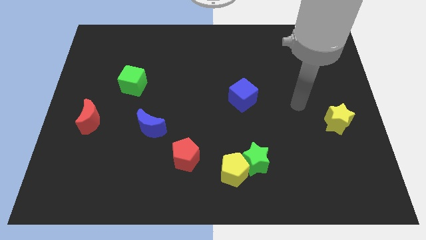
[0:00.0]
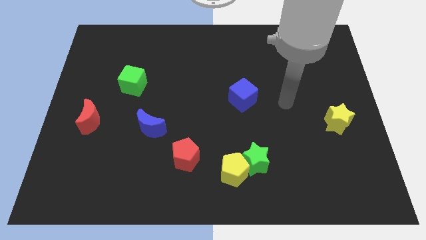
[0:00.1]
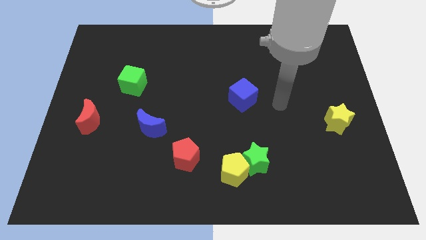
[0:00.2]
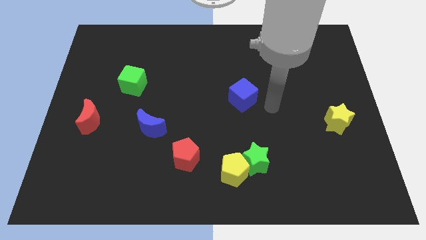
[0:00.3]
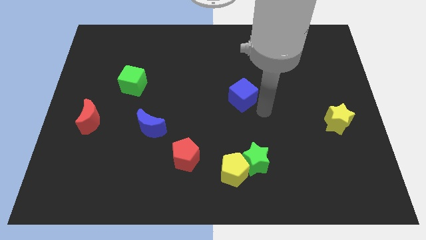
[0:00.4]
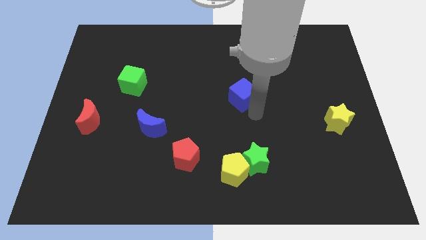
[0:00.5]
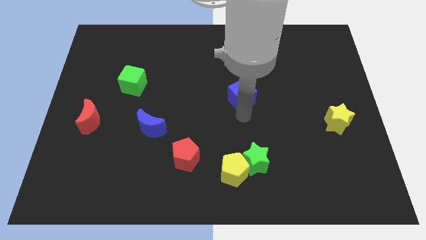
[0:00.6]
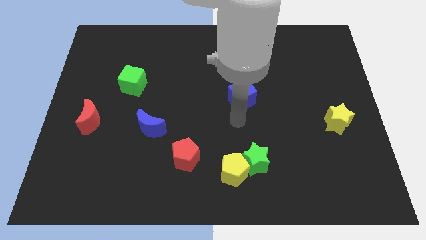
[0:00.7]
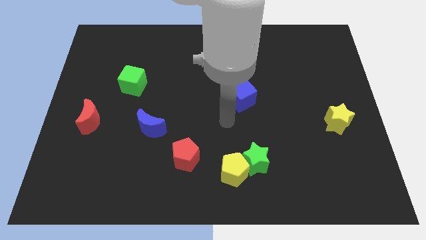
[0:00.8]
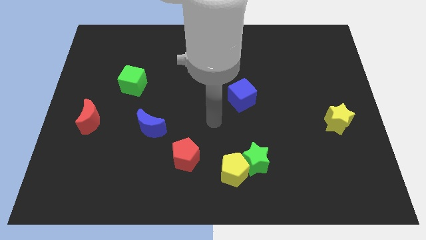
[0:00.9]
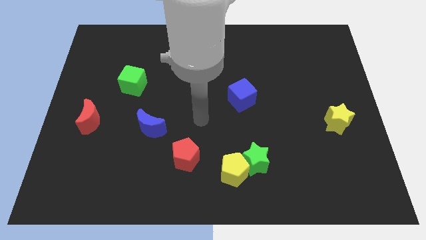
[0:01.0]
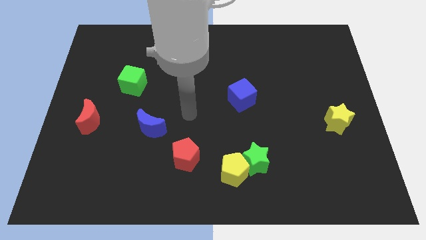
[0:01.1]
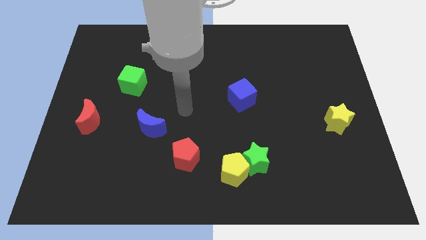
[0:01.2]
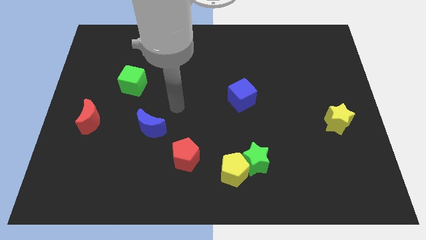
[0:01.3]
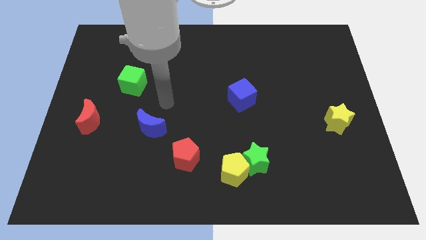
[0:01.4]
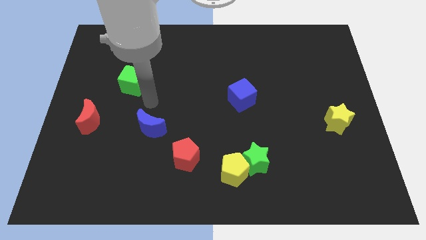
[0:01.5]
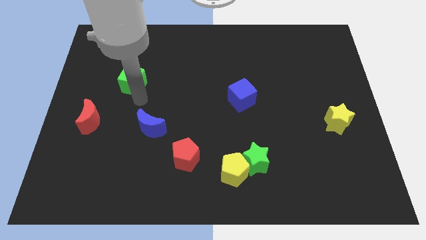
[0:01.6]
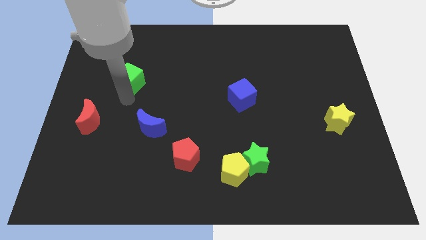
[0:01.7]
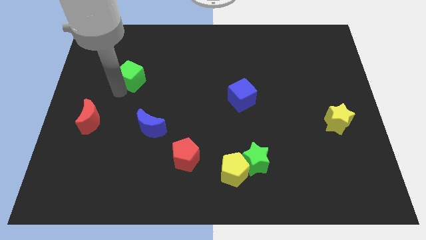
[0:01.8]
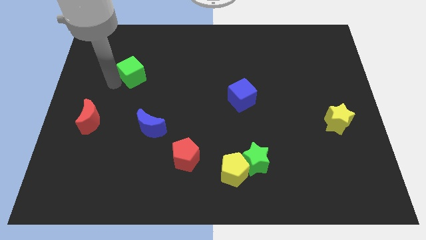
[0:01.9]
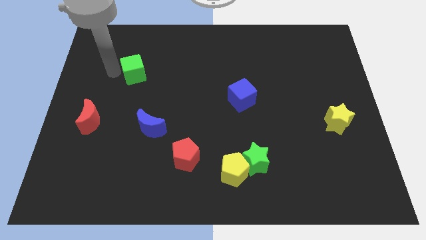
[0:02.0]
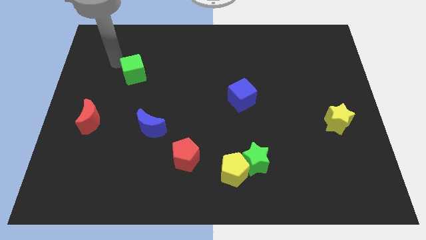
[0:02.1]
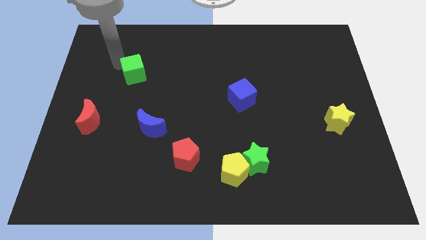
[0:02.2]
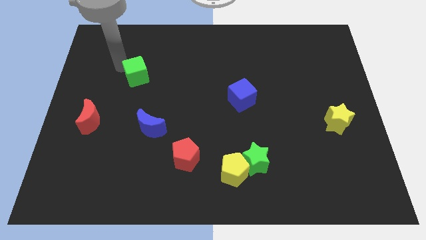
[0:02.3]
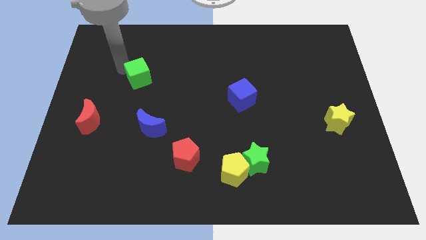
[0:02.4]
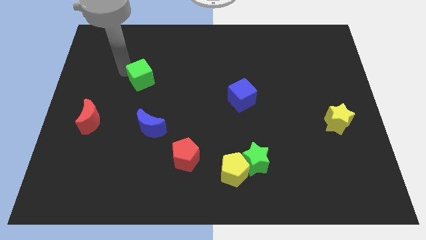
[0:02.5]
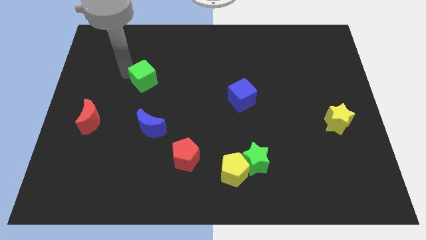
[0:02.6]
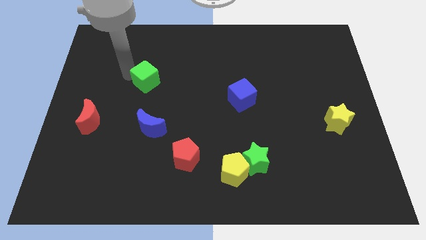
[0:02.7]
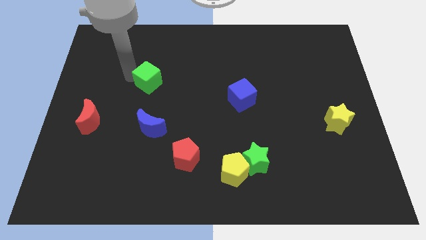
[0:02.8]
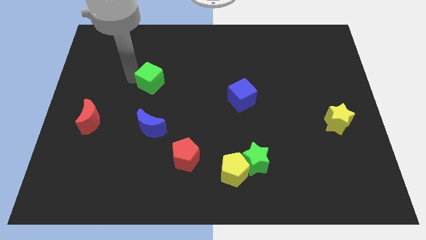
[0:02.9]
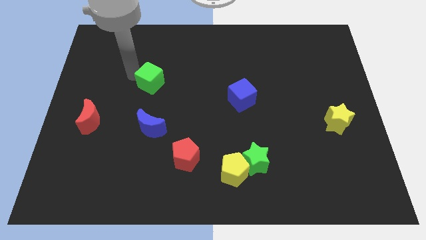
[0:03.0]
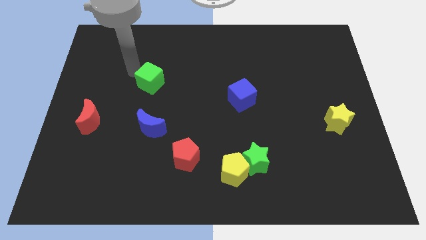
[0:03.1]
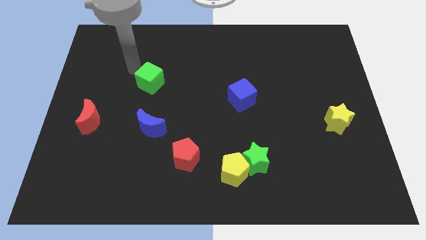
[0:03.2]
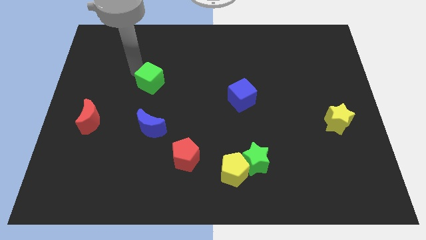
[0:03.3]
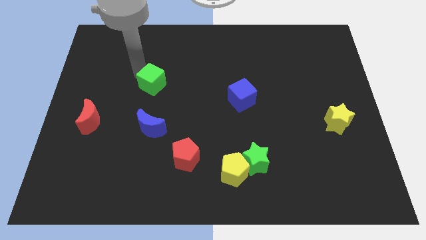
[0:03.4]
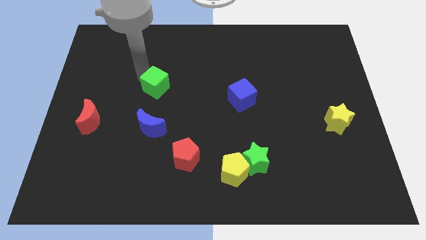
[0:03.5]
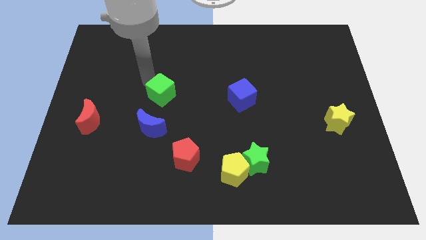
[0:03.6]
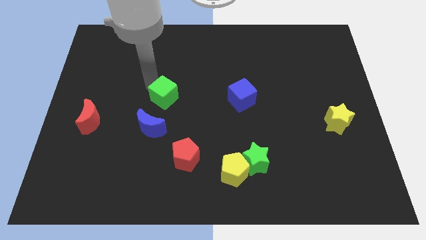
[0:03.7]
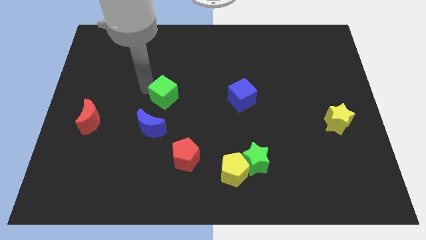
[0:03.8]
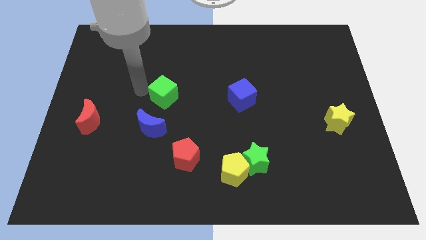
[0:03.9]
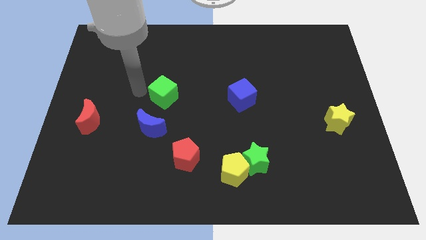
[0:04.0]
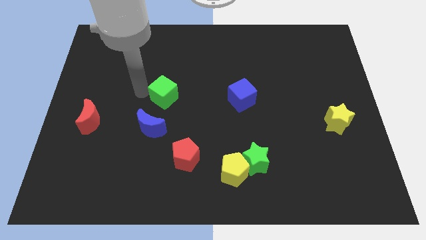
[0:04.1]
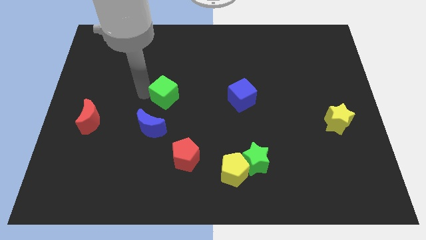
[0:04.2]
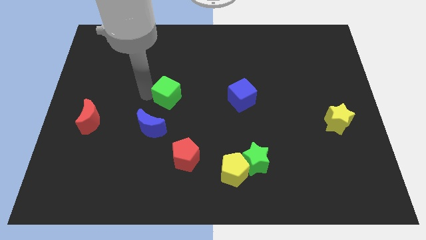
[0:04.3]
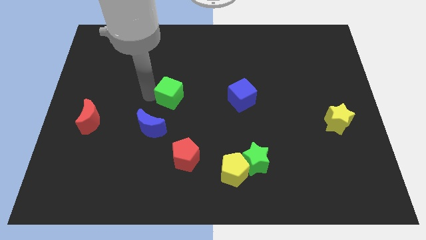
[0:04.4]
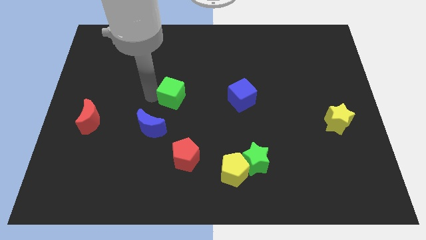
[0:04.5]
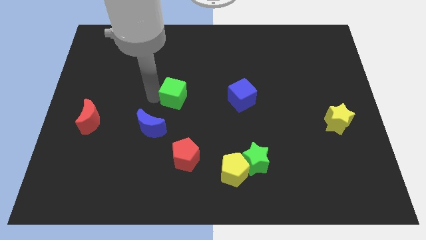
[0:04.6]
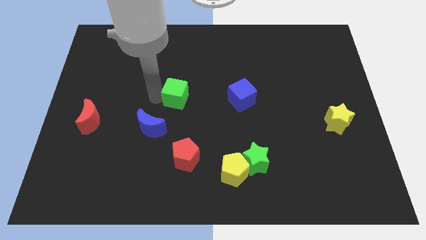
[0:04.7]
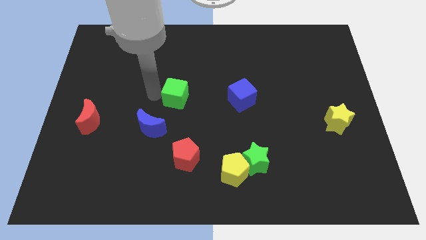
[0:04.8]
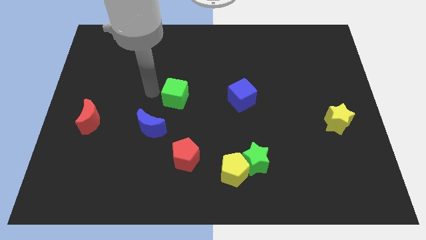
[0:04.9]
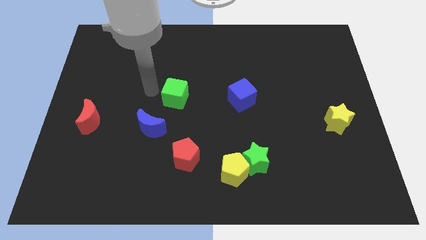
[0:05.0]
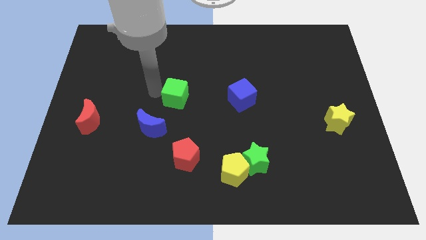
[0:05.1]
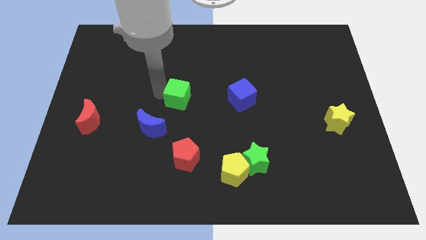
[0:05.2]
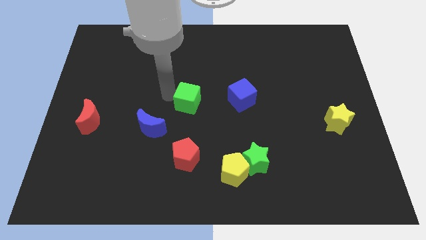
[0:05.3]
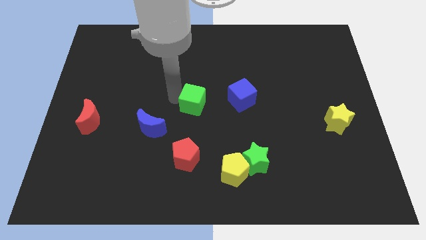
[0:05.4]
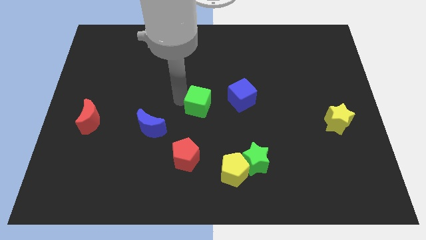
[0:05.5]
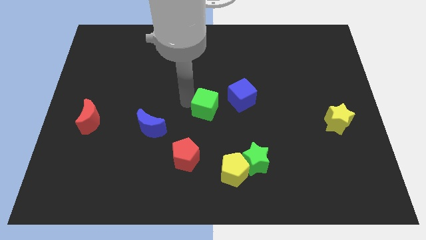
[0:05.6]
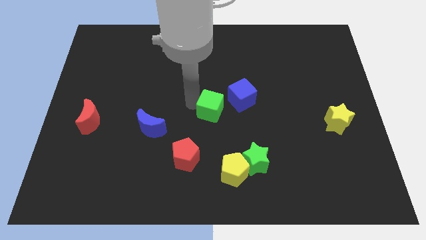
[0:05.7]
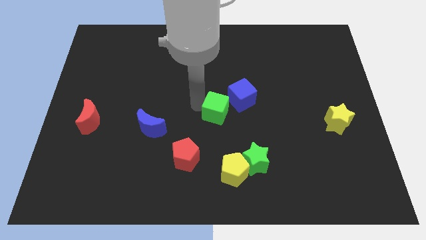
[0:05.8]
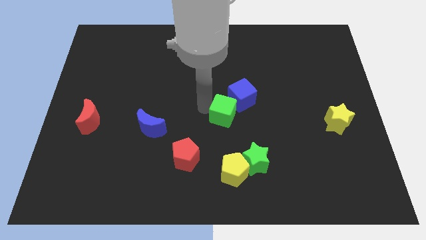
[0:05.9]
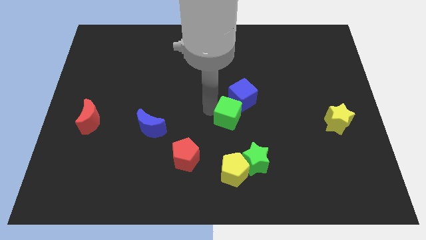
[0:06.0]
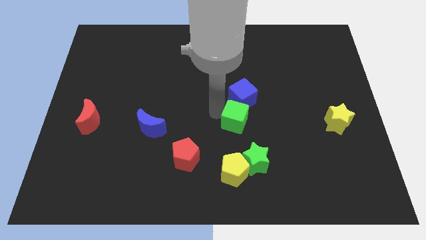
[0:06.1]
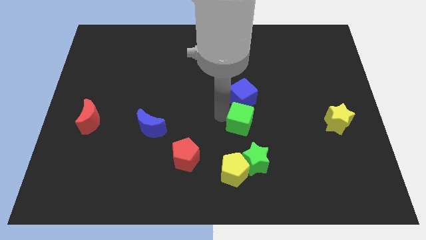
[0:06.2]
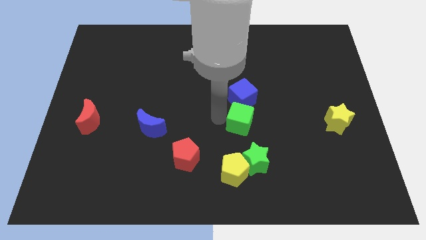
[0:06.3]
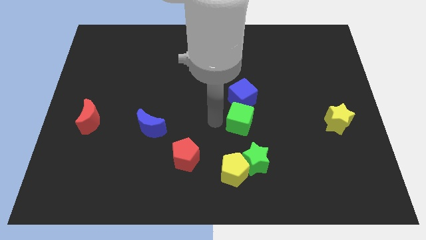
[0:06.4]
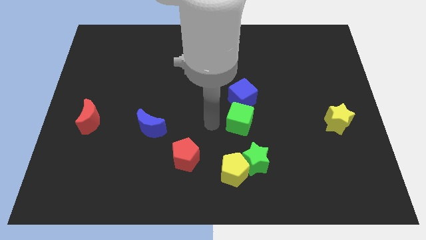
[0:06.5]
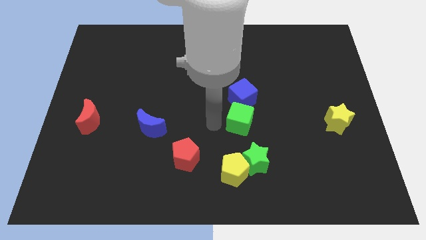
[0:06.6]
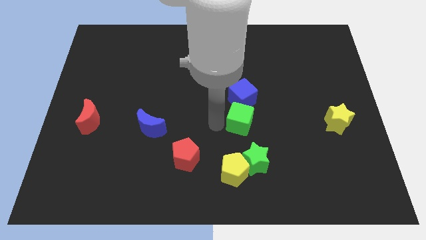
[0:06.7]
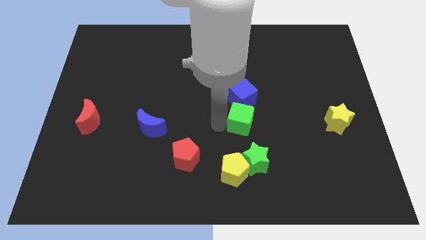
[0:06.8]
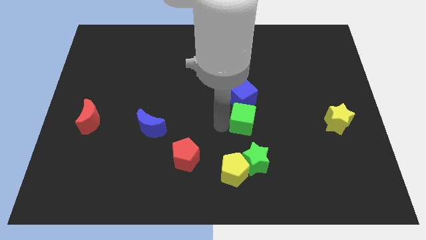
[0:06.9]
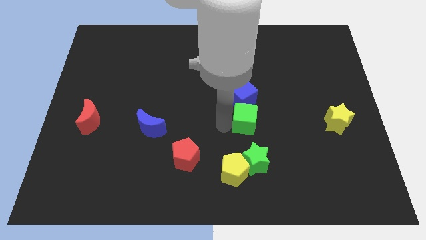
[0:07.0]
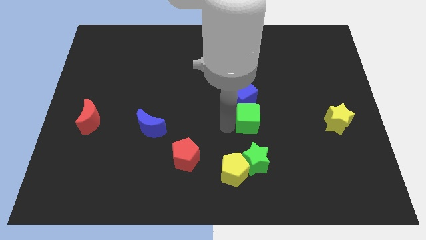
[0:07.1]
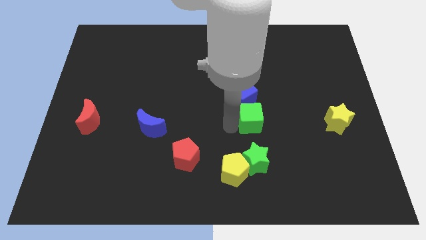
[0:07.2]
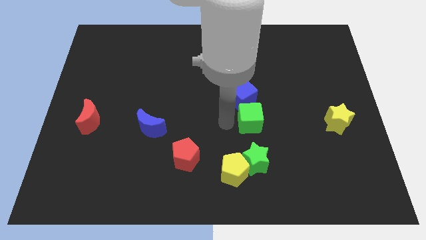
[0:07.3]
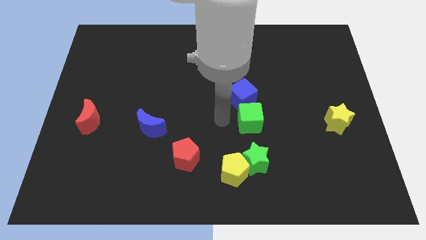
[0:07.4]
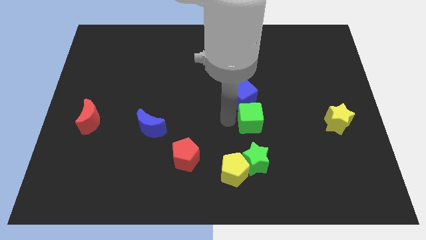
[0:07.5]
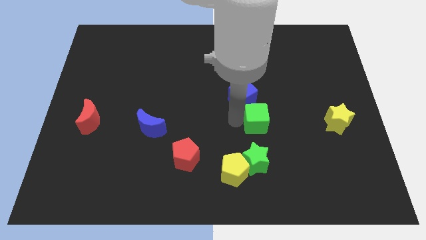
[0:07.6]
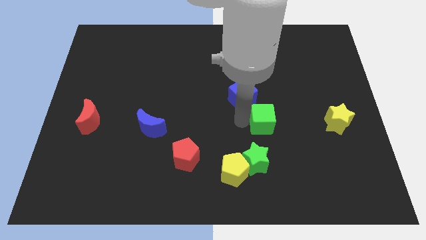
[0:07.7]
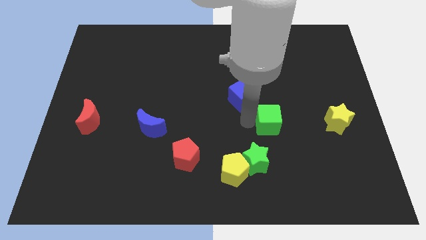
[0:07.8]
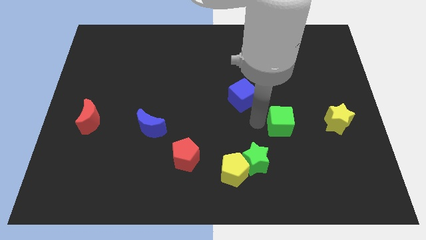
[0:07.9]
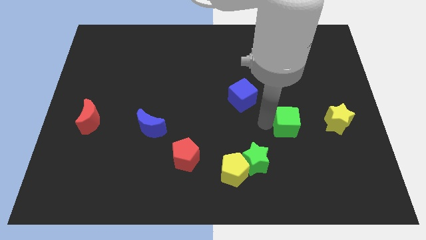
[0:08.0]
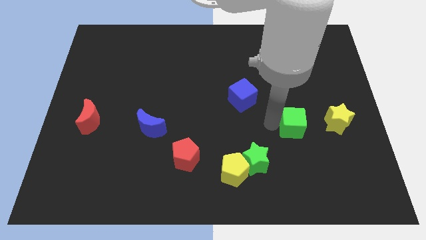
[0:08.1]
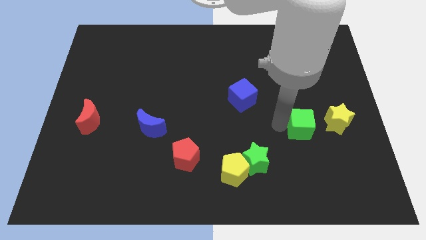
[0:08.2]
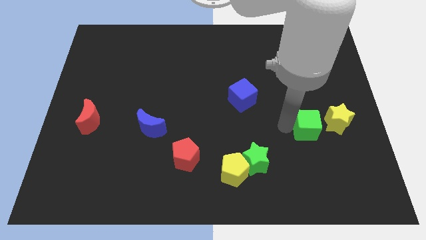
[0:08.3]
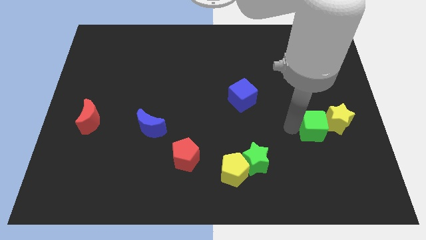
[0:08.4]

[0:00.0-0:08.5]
move the green cube next to the yellow star
